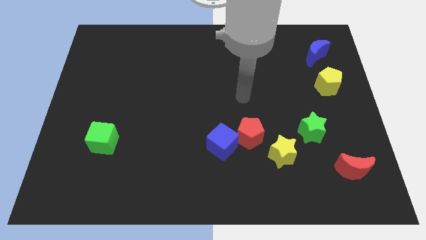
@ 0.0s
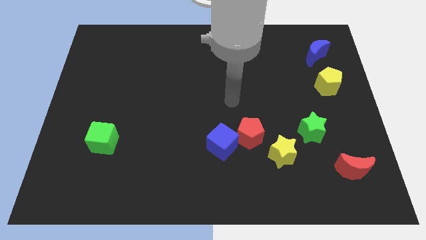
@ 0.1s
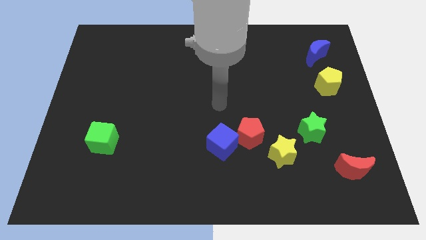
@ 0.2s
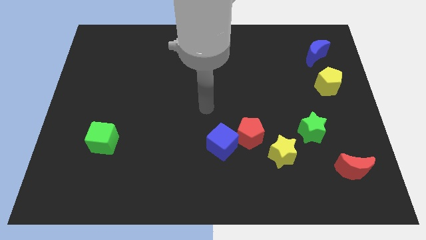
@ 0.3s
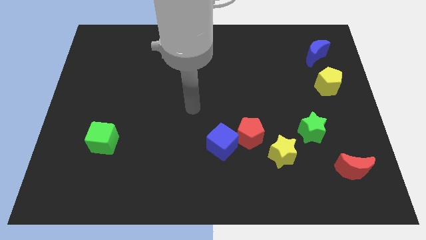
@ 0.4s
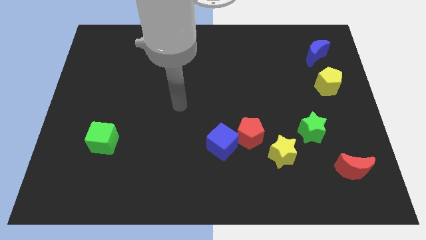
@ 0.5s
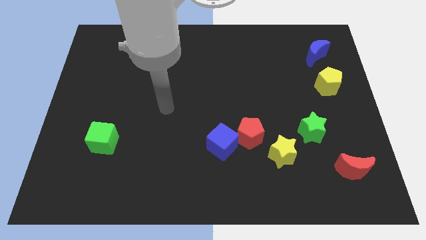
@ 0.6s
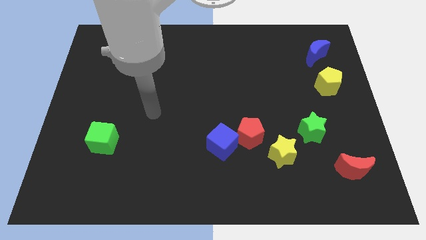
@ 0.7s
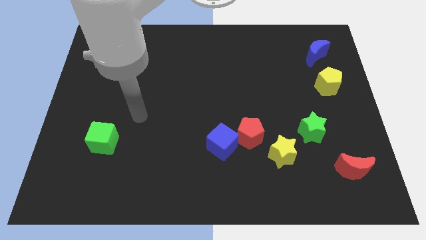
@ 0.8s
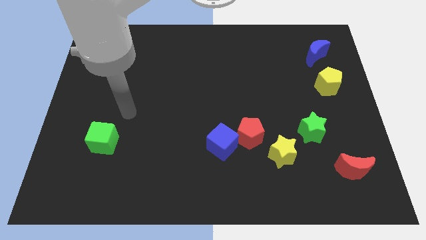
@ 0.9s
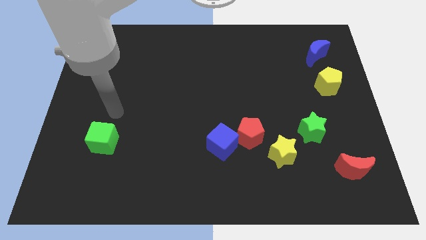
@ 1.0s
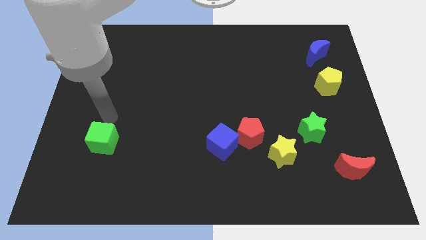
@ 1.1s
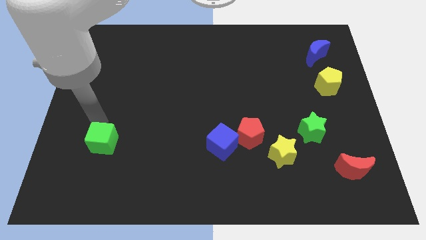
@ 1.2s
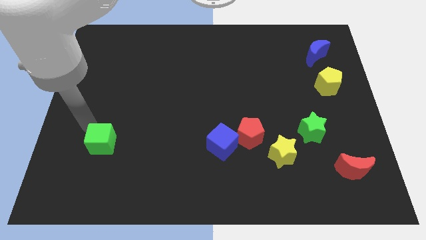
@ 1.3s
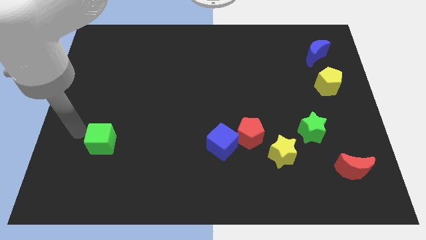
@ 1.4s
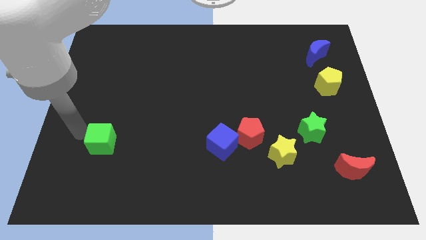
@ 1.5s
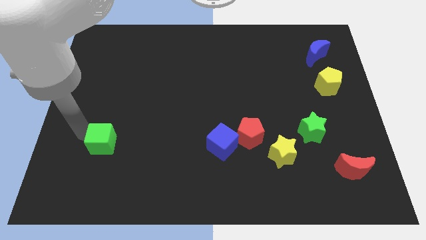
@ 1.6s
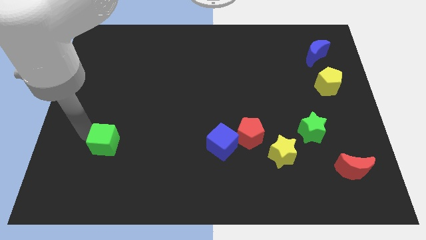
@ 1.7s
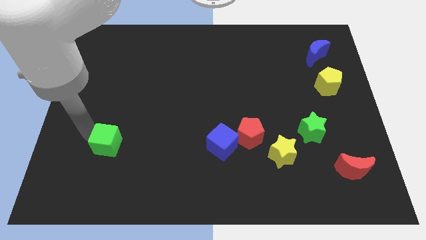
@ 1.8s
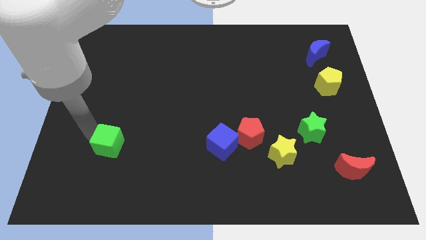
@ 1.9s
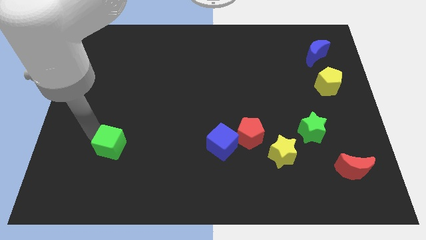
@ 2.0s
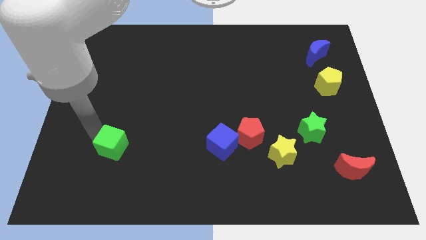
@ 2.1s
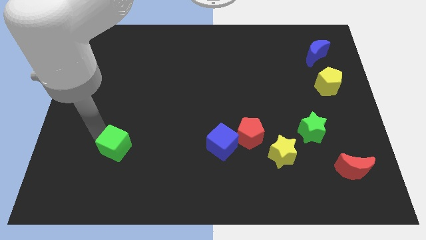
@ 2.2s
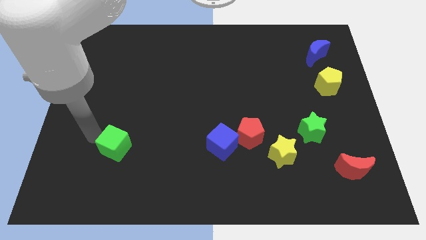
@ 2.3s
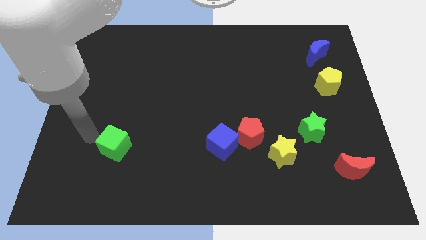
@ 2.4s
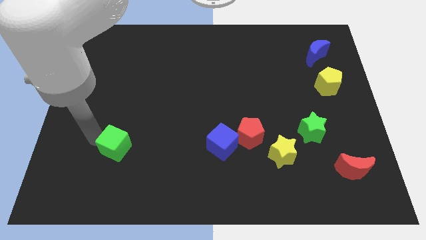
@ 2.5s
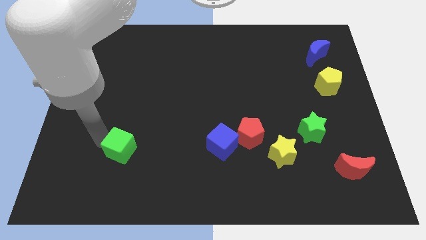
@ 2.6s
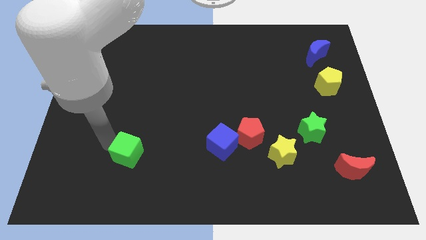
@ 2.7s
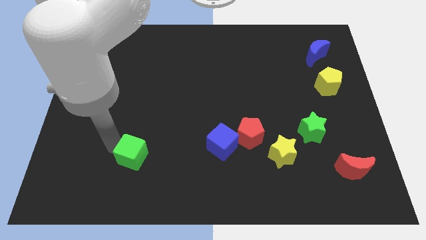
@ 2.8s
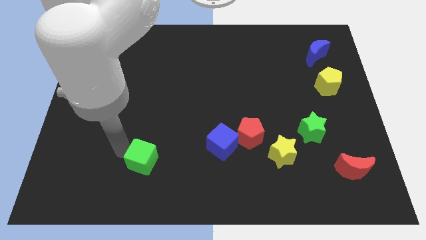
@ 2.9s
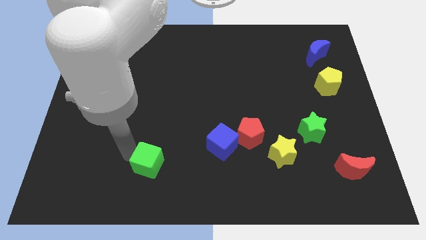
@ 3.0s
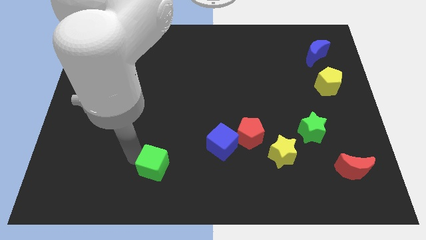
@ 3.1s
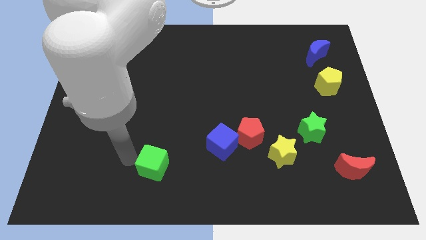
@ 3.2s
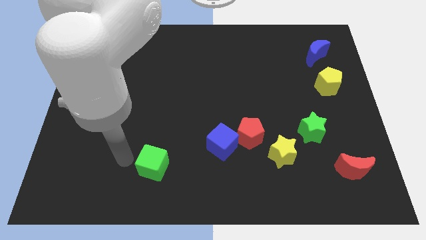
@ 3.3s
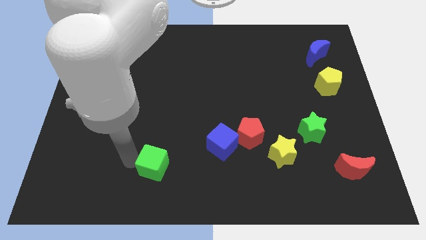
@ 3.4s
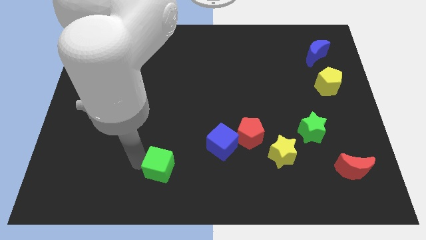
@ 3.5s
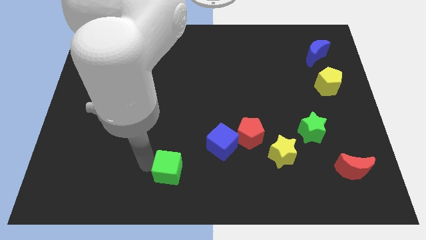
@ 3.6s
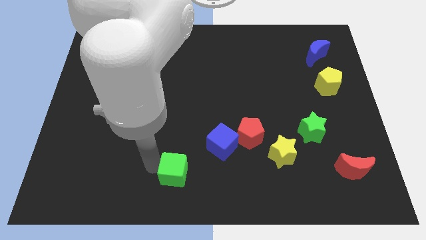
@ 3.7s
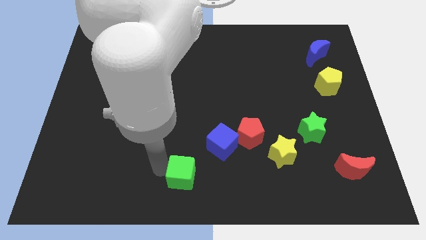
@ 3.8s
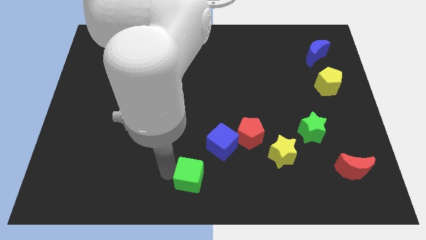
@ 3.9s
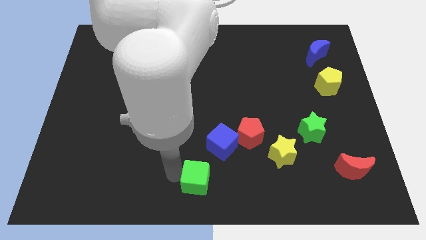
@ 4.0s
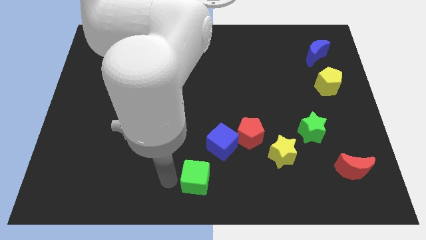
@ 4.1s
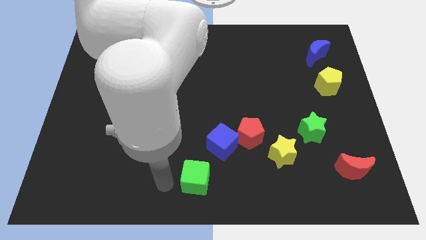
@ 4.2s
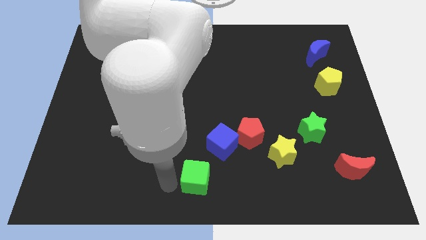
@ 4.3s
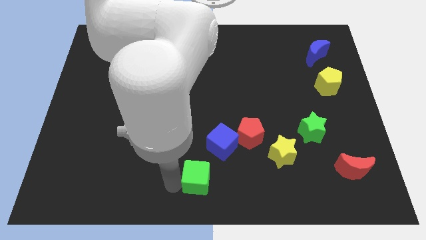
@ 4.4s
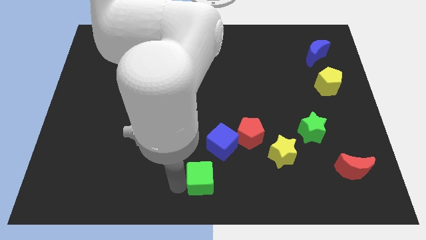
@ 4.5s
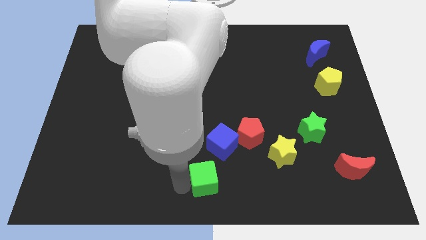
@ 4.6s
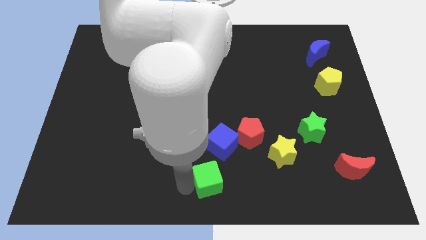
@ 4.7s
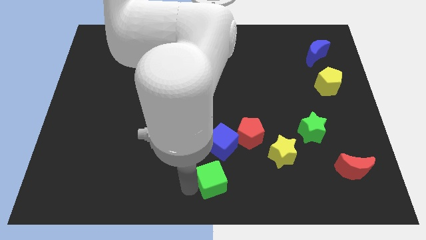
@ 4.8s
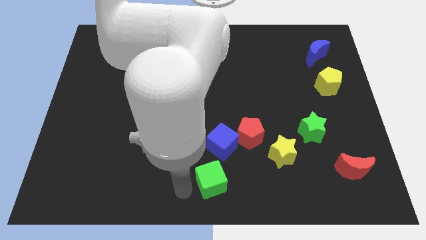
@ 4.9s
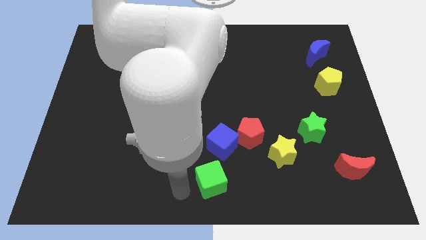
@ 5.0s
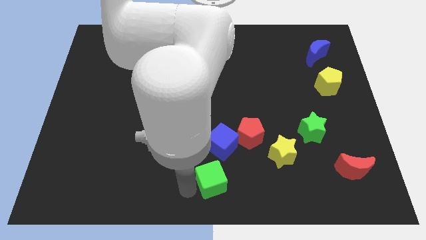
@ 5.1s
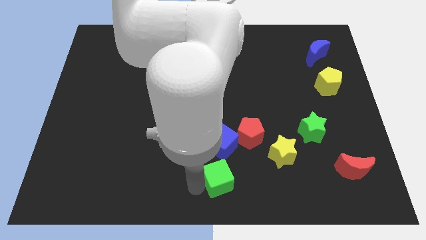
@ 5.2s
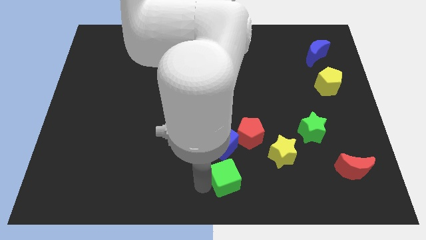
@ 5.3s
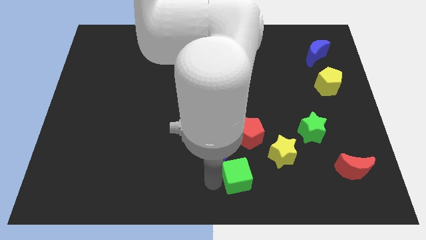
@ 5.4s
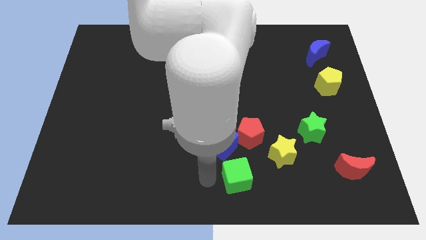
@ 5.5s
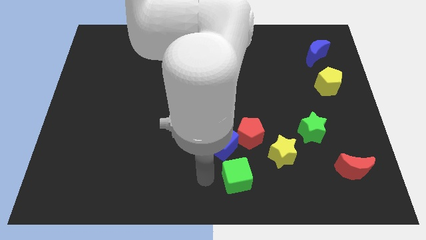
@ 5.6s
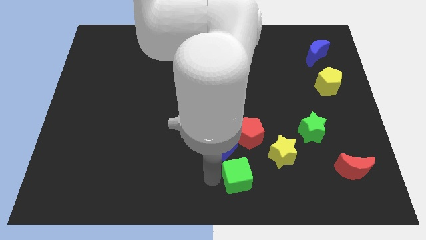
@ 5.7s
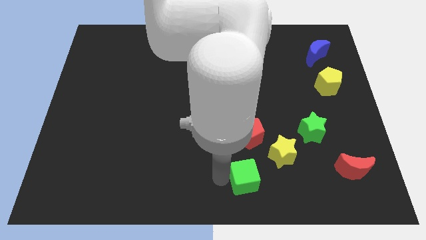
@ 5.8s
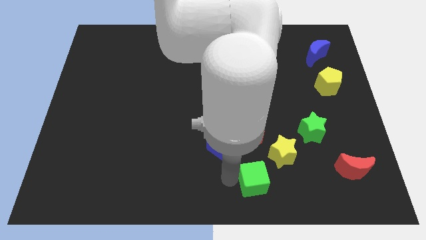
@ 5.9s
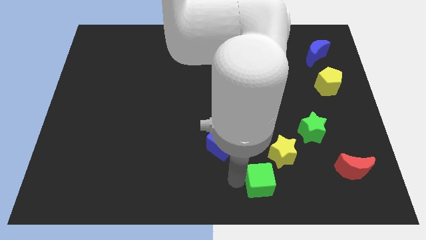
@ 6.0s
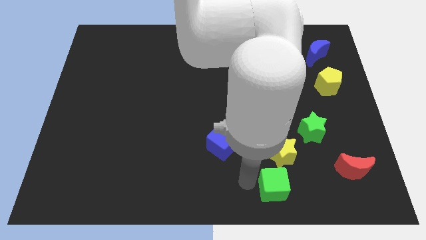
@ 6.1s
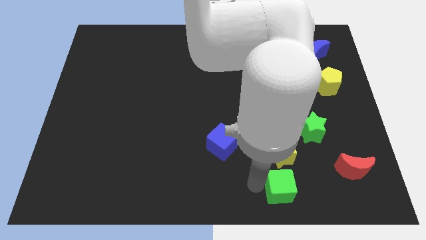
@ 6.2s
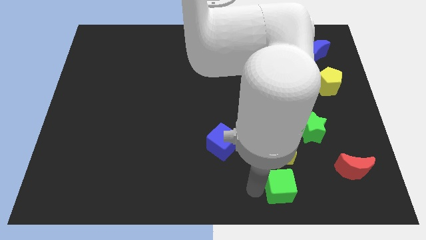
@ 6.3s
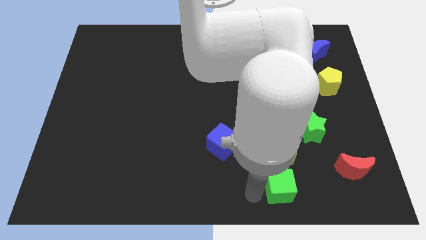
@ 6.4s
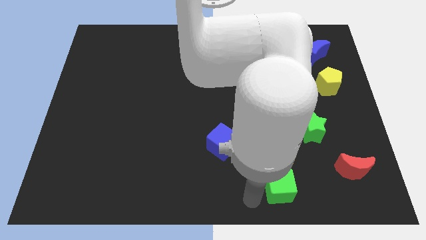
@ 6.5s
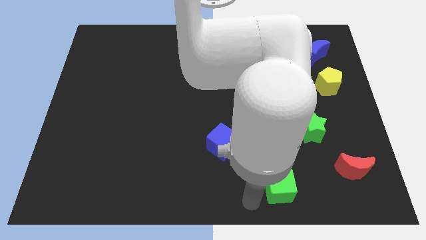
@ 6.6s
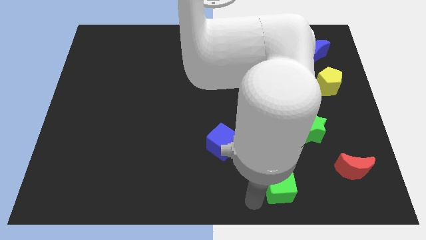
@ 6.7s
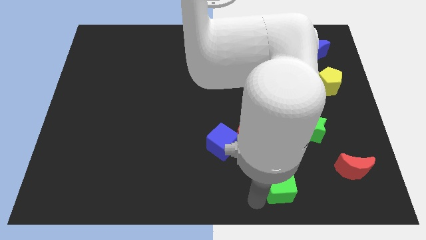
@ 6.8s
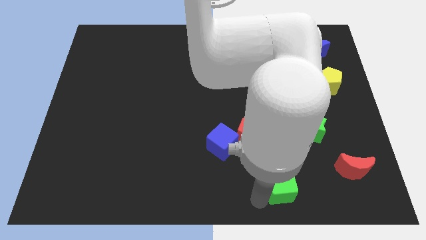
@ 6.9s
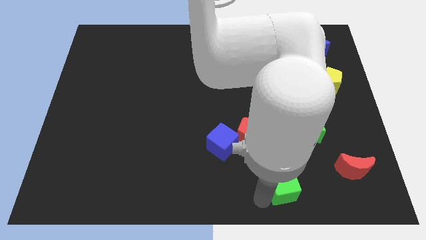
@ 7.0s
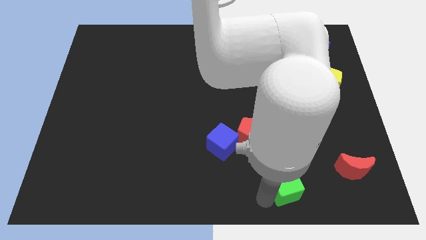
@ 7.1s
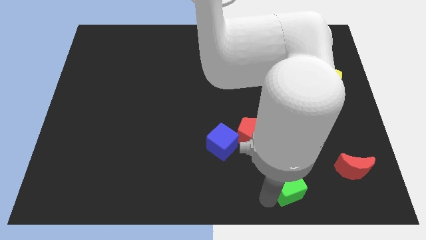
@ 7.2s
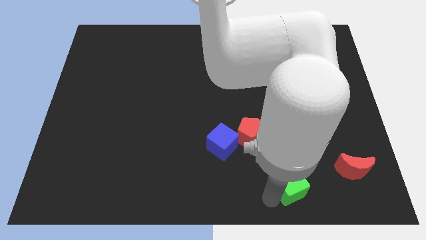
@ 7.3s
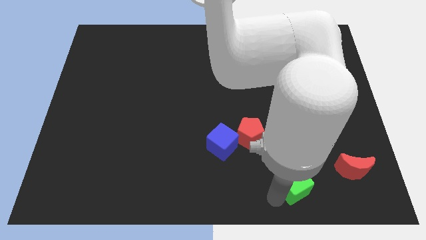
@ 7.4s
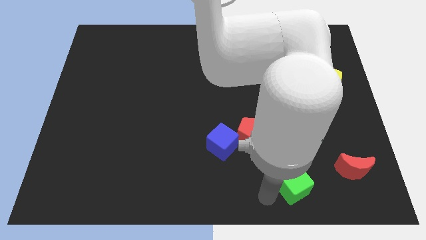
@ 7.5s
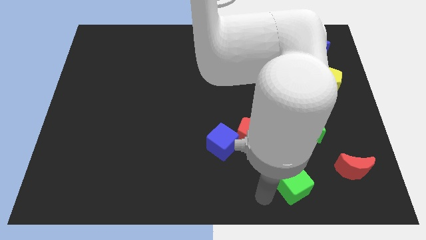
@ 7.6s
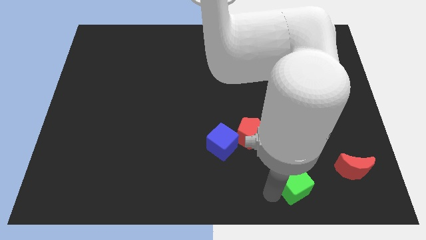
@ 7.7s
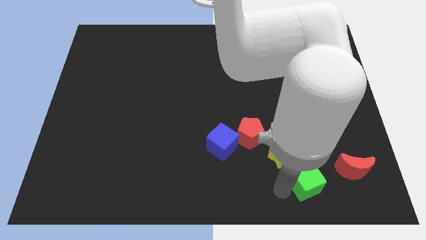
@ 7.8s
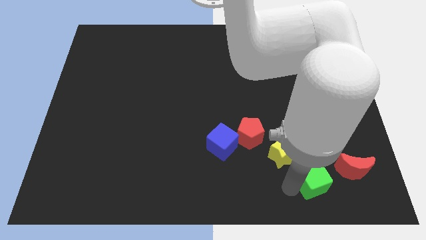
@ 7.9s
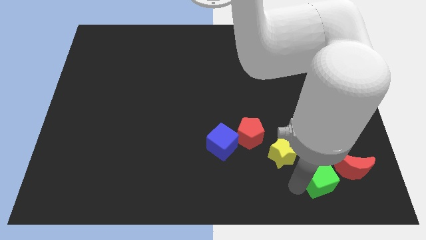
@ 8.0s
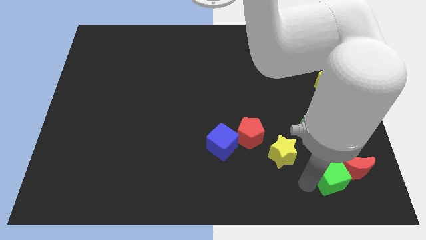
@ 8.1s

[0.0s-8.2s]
put the green cube to the red moon
